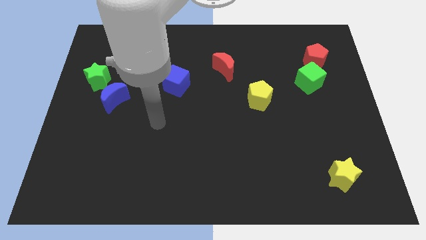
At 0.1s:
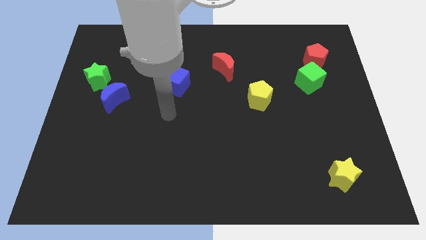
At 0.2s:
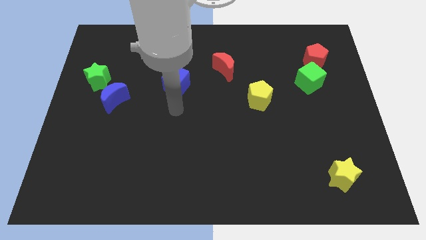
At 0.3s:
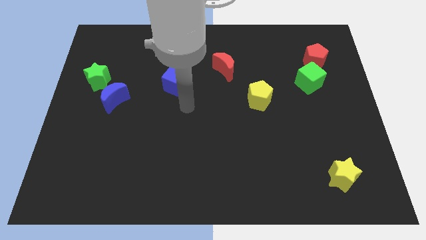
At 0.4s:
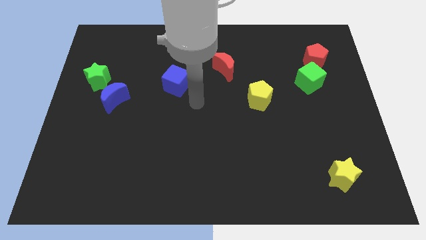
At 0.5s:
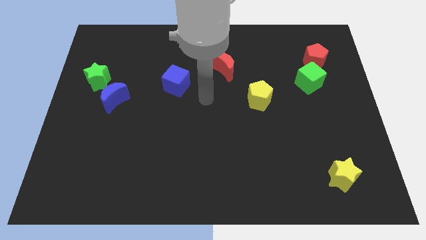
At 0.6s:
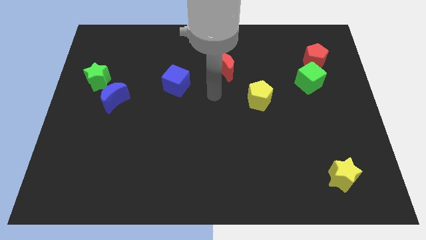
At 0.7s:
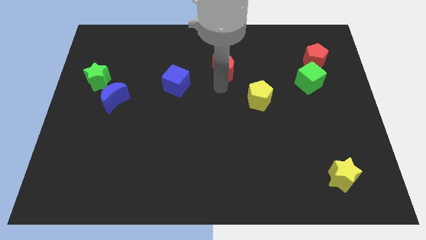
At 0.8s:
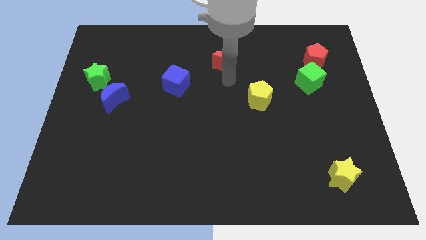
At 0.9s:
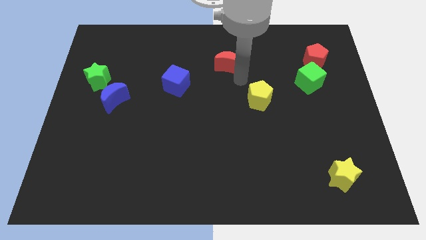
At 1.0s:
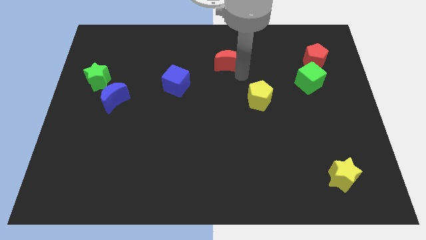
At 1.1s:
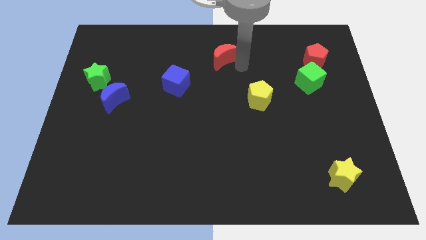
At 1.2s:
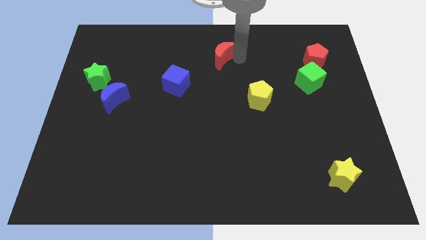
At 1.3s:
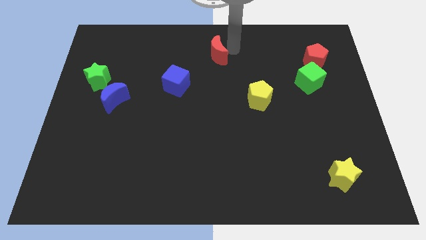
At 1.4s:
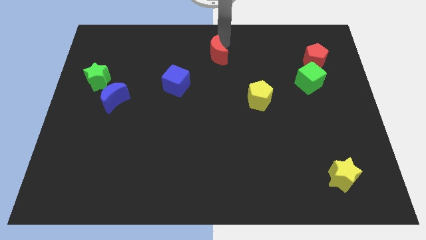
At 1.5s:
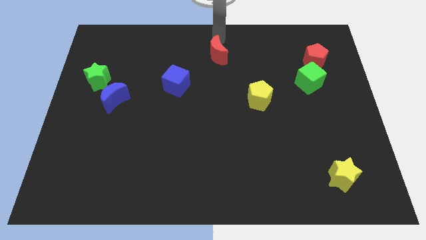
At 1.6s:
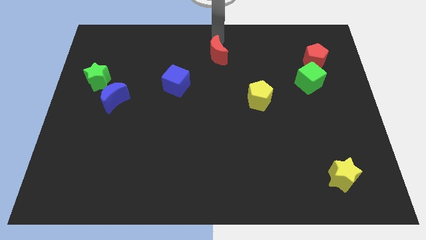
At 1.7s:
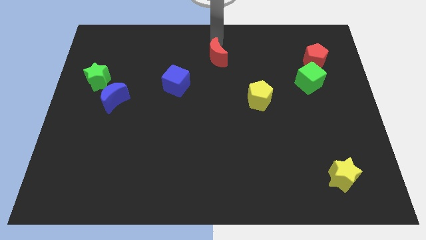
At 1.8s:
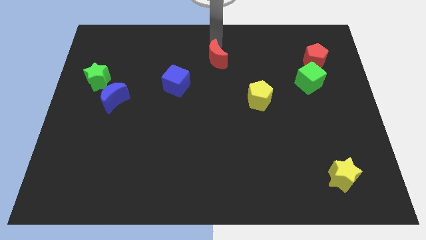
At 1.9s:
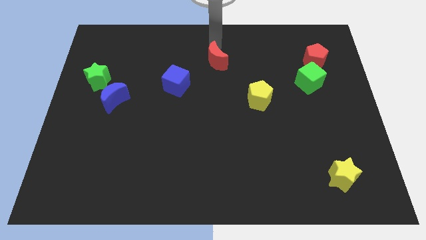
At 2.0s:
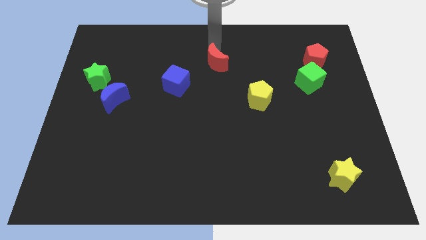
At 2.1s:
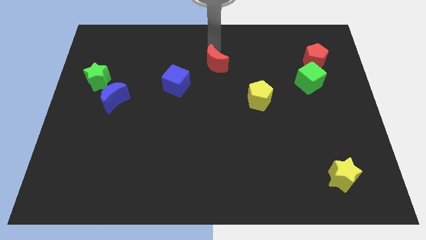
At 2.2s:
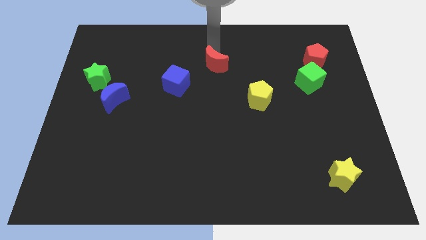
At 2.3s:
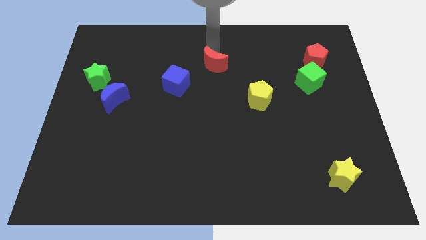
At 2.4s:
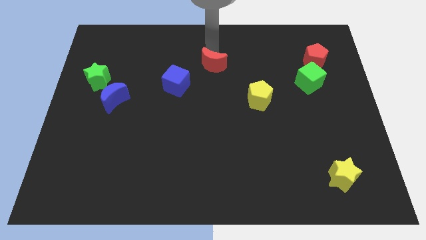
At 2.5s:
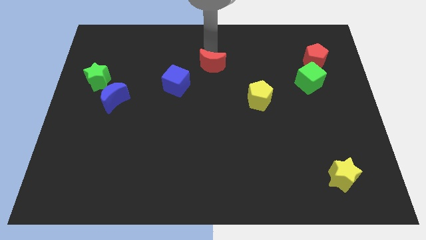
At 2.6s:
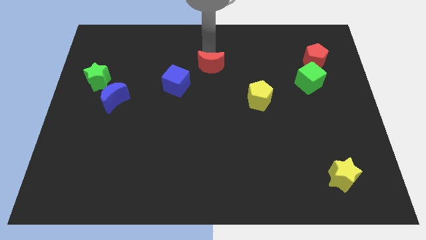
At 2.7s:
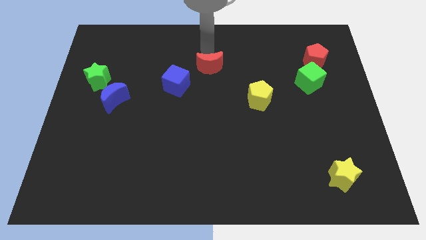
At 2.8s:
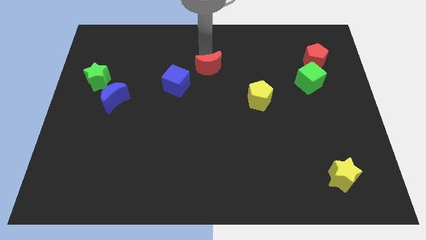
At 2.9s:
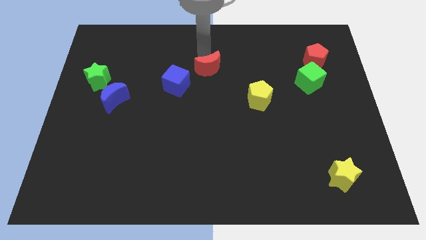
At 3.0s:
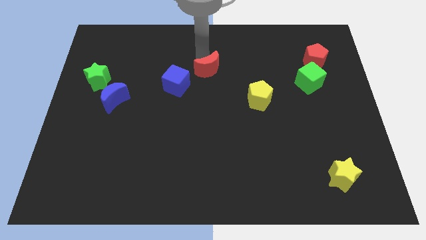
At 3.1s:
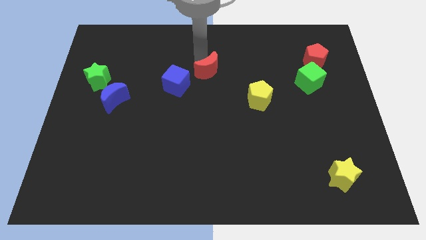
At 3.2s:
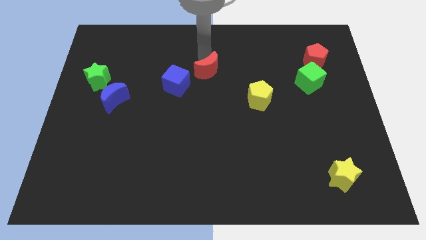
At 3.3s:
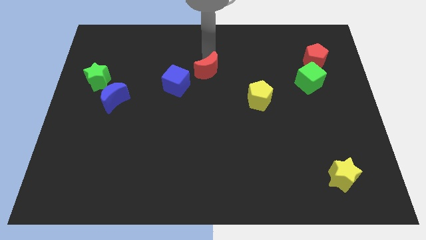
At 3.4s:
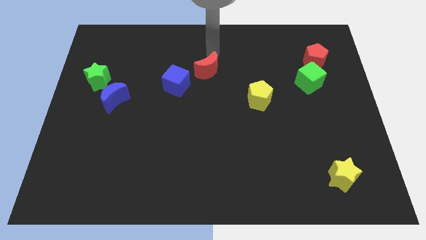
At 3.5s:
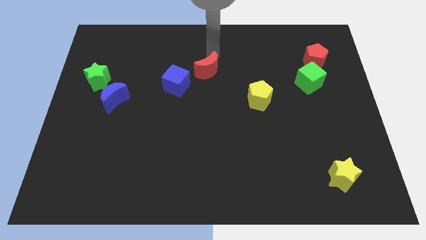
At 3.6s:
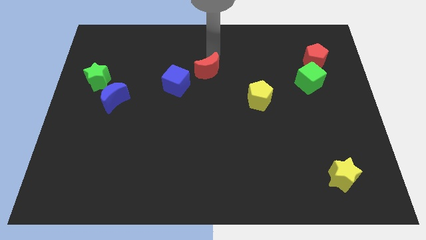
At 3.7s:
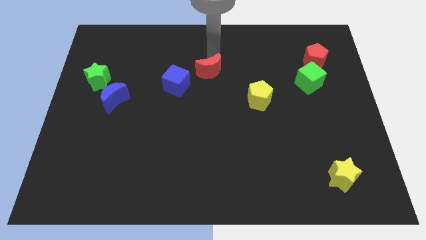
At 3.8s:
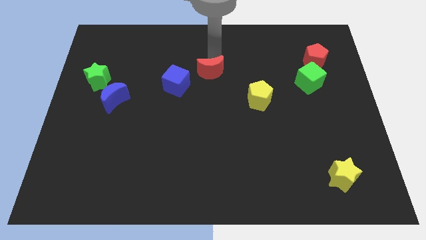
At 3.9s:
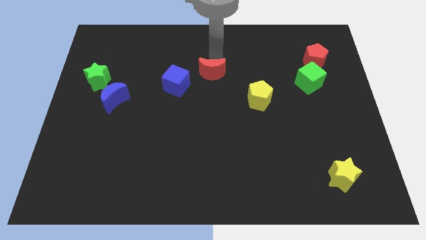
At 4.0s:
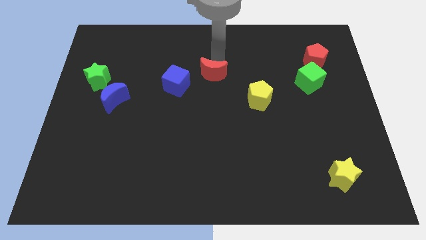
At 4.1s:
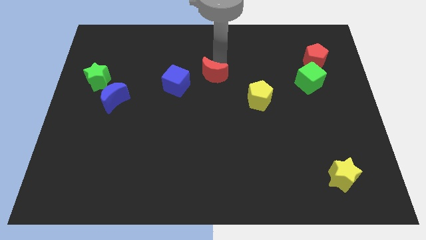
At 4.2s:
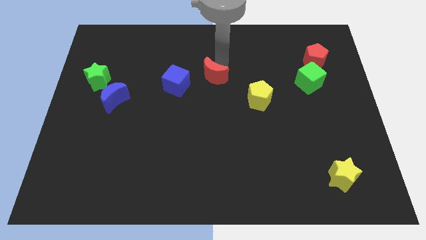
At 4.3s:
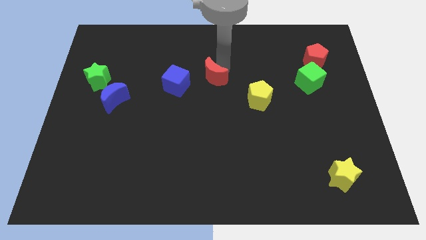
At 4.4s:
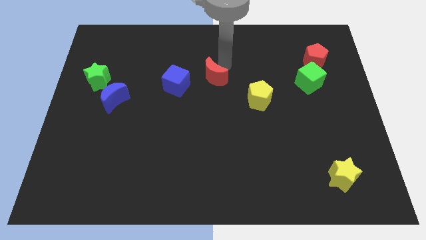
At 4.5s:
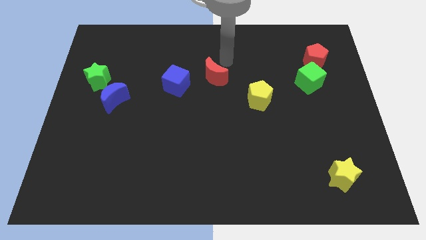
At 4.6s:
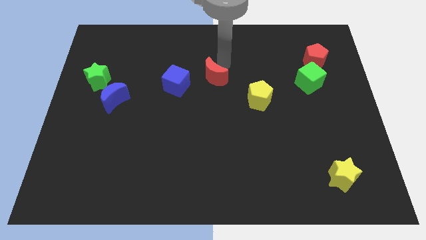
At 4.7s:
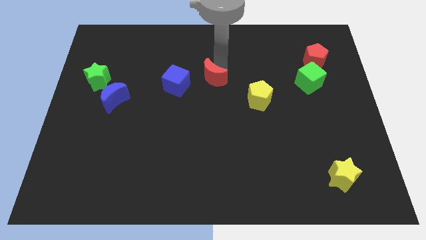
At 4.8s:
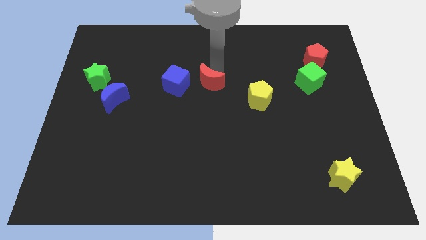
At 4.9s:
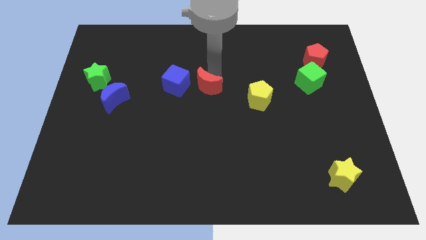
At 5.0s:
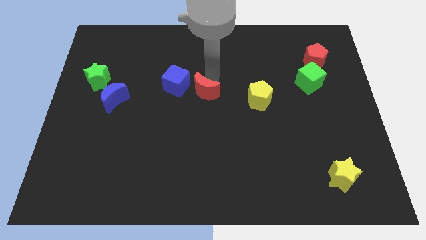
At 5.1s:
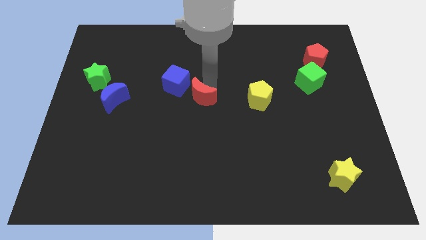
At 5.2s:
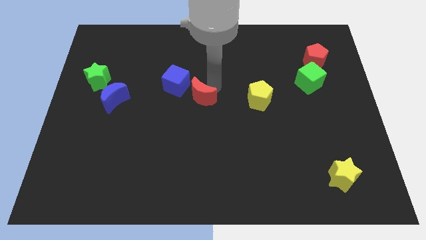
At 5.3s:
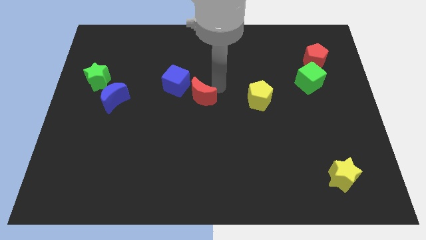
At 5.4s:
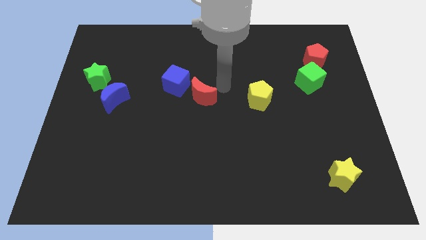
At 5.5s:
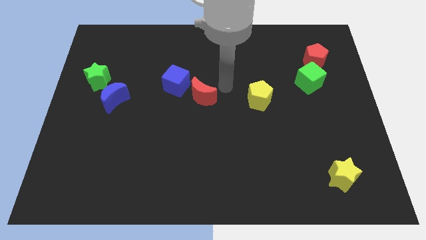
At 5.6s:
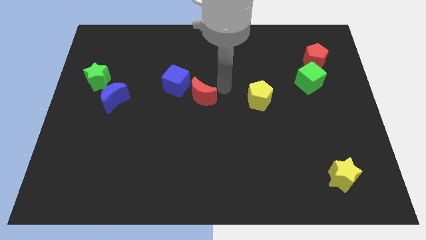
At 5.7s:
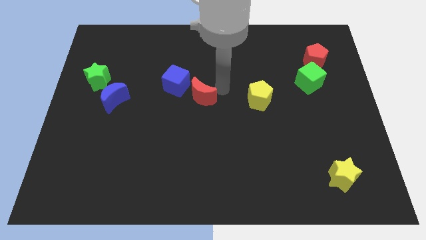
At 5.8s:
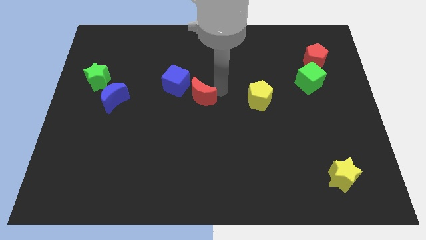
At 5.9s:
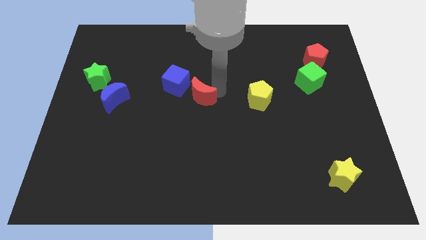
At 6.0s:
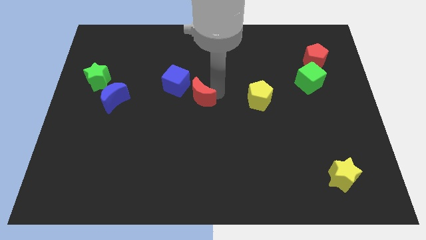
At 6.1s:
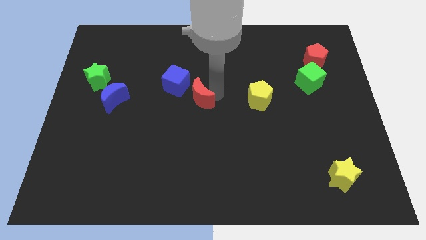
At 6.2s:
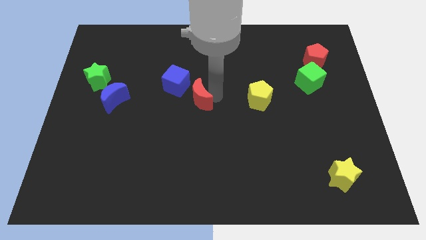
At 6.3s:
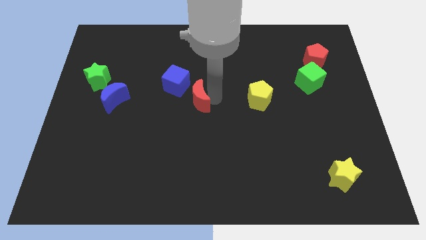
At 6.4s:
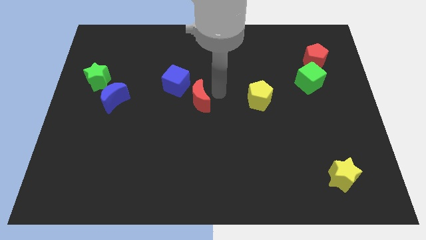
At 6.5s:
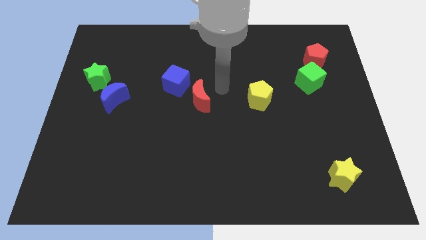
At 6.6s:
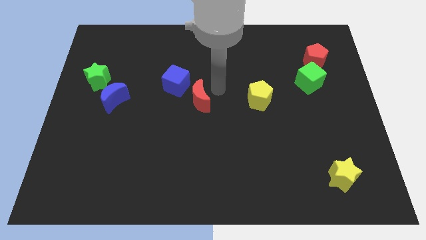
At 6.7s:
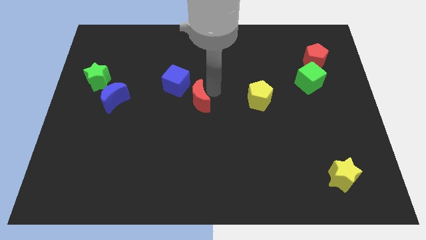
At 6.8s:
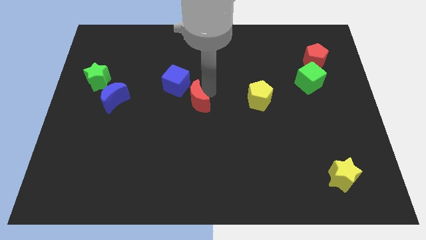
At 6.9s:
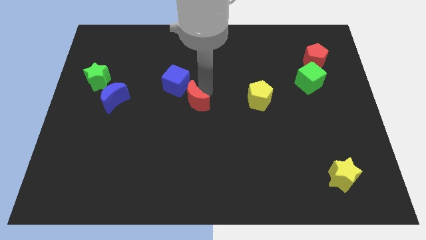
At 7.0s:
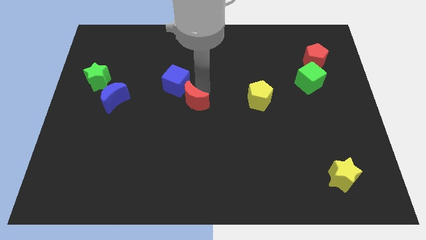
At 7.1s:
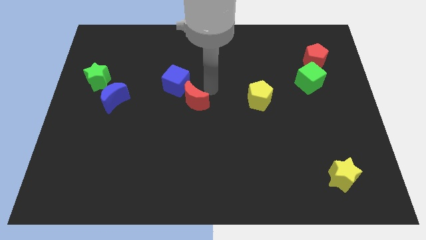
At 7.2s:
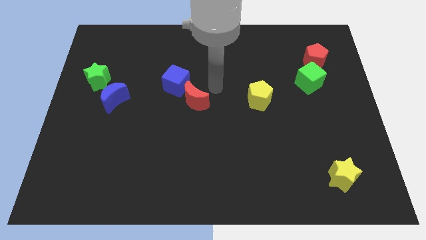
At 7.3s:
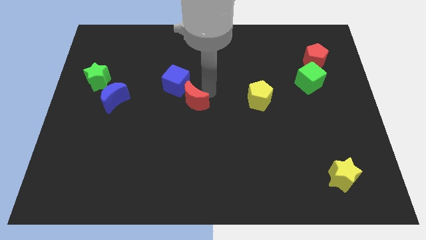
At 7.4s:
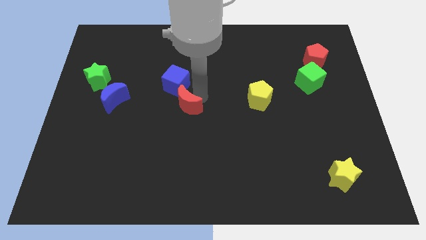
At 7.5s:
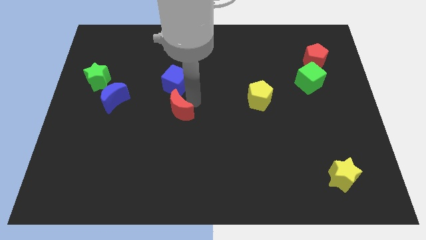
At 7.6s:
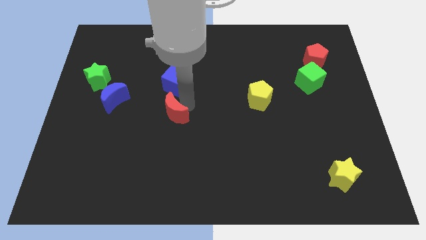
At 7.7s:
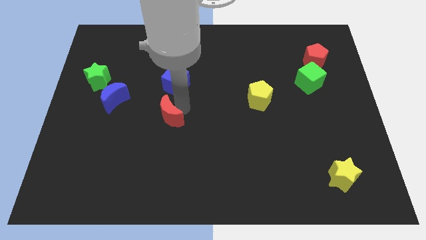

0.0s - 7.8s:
move the red moon diagonally downwards and left
